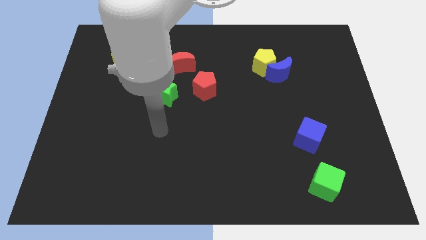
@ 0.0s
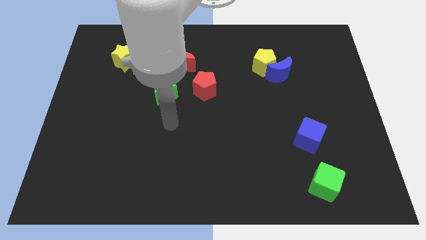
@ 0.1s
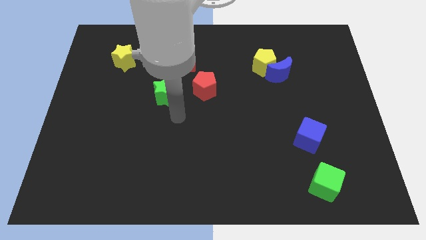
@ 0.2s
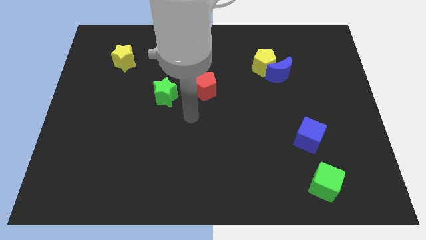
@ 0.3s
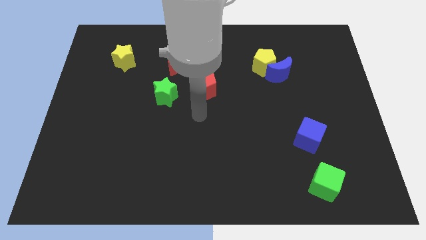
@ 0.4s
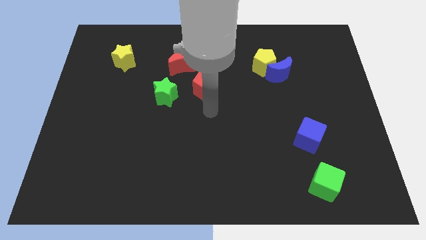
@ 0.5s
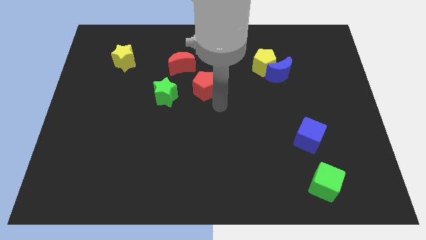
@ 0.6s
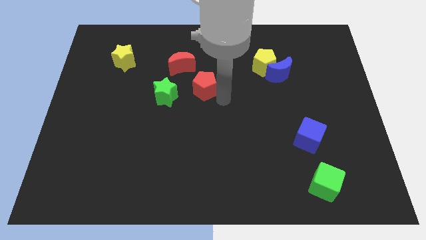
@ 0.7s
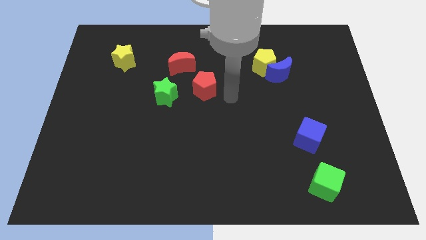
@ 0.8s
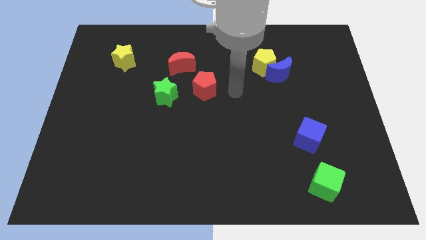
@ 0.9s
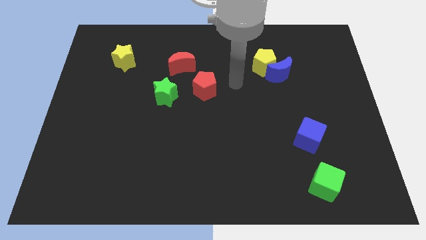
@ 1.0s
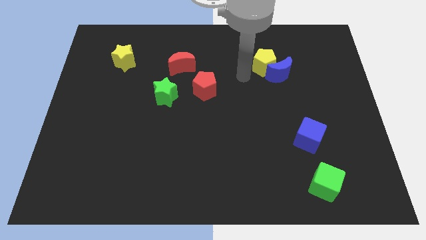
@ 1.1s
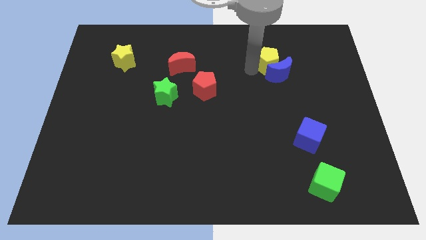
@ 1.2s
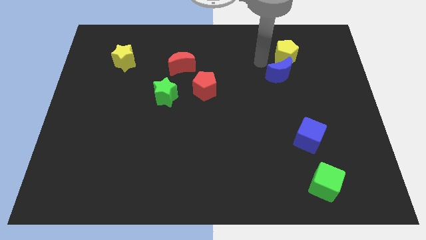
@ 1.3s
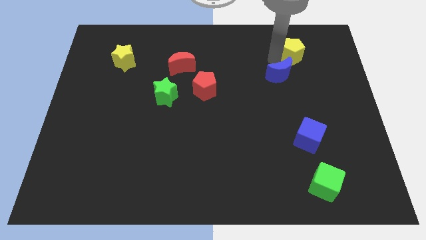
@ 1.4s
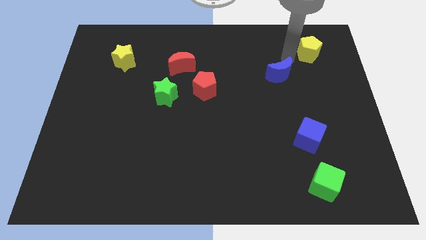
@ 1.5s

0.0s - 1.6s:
pull the blue moon apart from the yellow pentagon

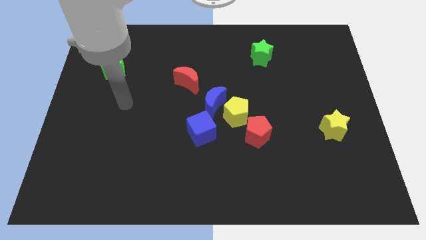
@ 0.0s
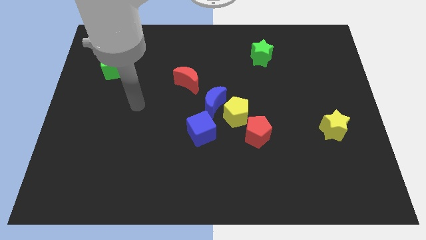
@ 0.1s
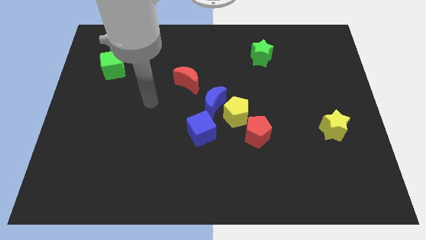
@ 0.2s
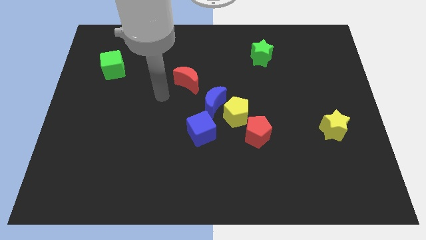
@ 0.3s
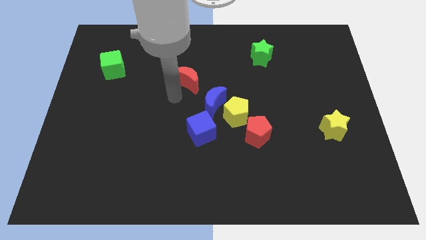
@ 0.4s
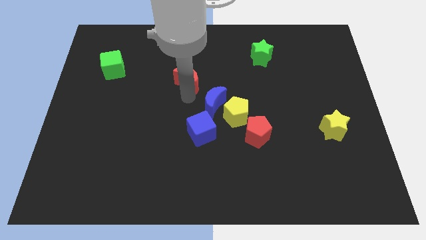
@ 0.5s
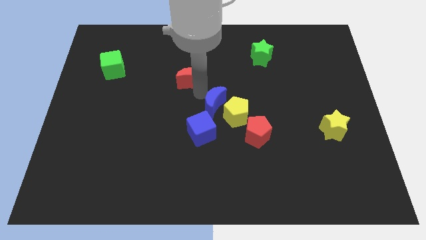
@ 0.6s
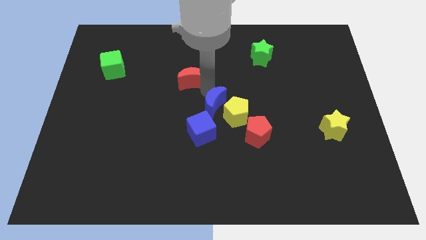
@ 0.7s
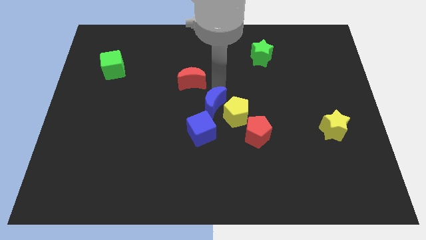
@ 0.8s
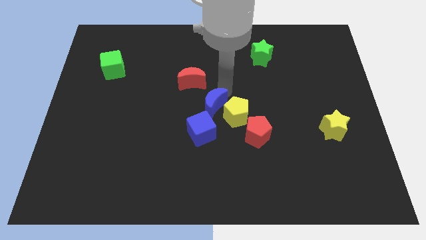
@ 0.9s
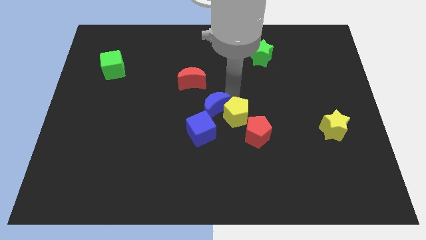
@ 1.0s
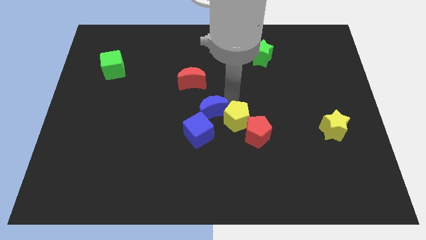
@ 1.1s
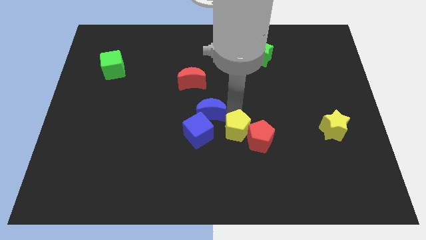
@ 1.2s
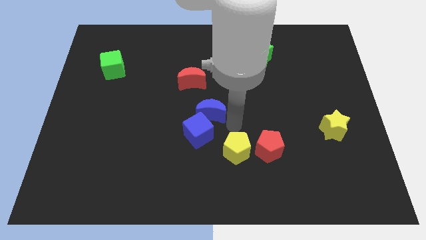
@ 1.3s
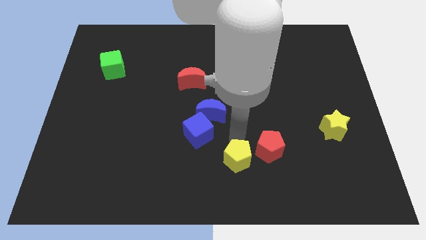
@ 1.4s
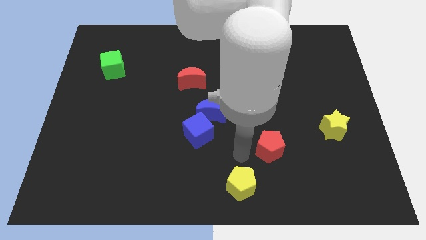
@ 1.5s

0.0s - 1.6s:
move the red pentagon away from the yellow pentagon

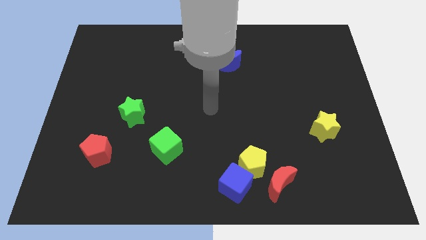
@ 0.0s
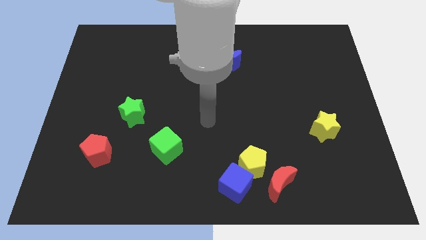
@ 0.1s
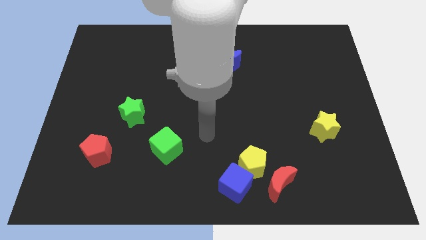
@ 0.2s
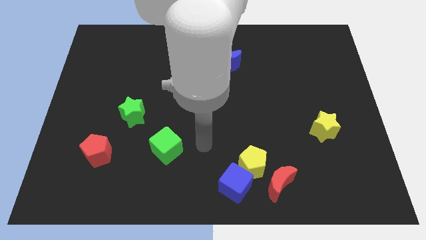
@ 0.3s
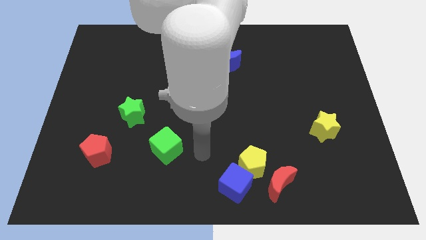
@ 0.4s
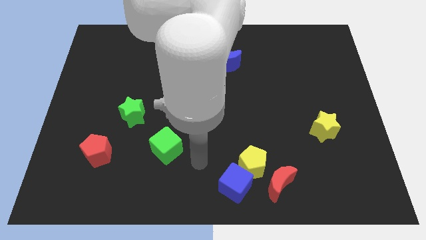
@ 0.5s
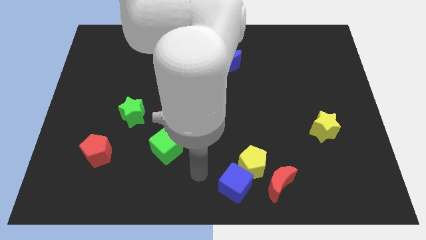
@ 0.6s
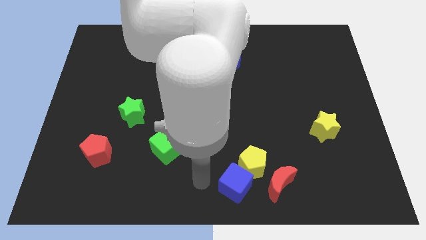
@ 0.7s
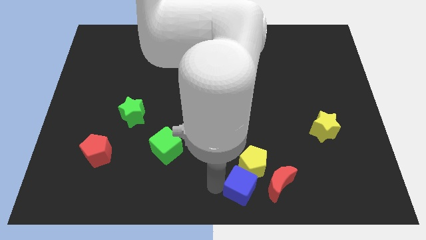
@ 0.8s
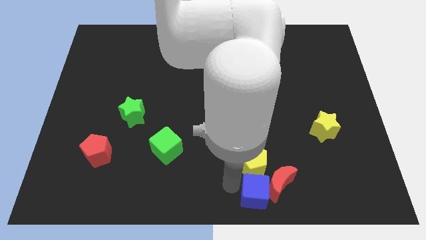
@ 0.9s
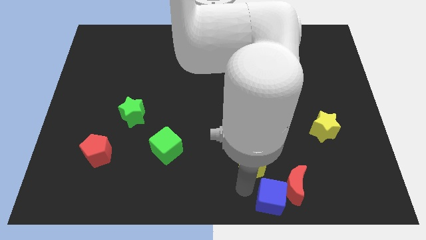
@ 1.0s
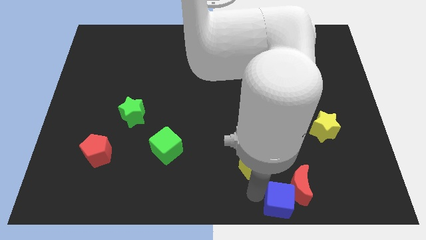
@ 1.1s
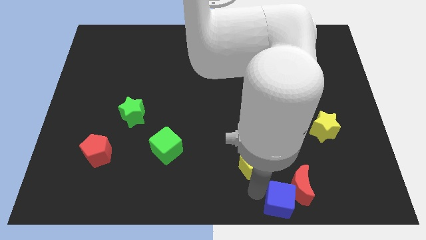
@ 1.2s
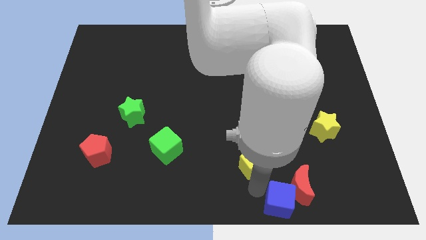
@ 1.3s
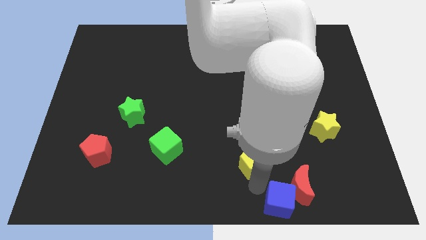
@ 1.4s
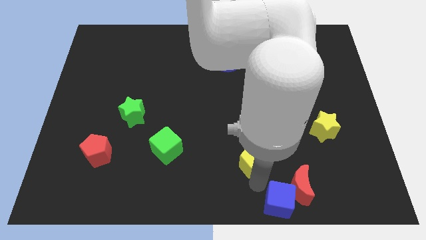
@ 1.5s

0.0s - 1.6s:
pull the yellow pentagon apart from the blue cube and red moon

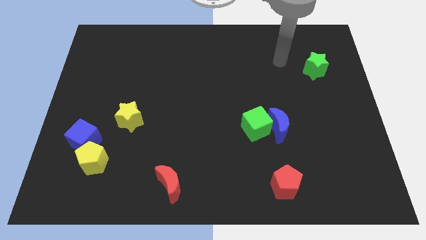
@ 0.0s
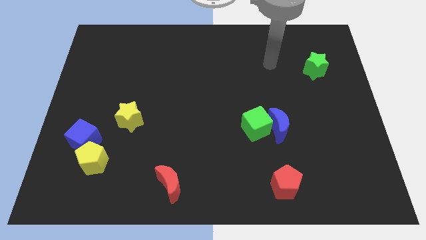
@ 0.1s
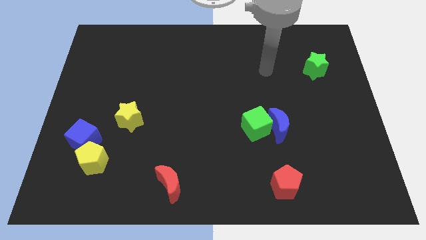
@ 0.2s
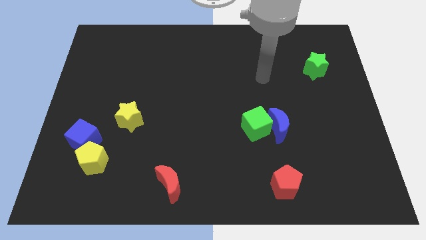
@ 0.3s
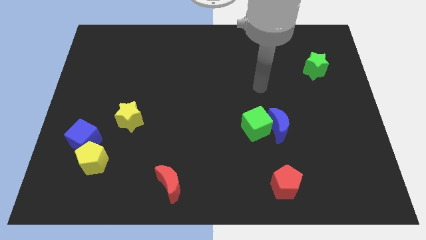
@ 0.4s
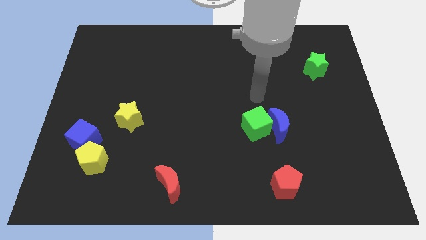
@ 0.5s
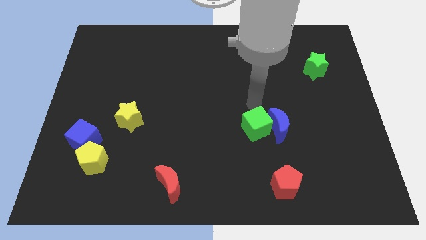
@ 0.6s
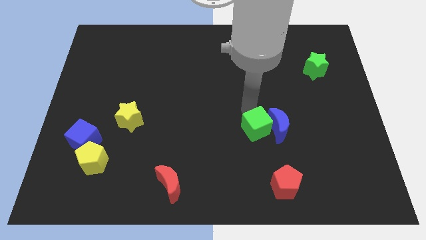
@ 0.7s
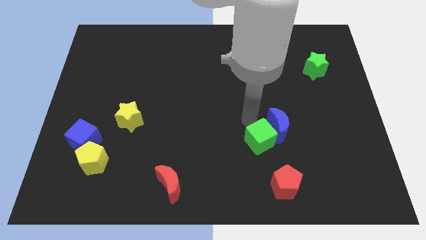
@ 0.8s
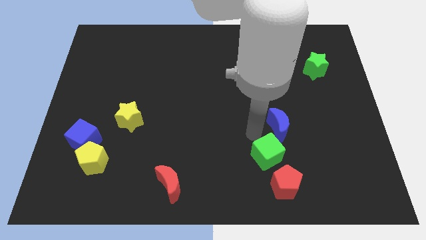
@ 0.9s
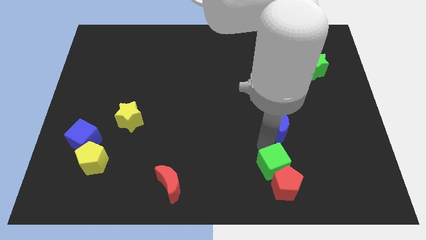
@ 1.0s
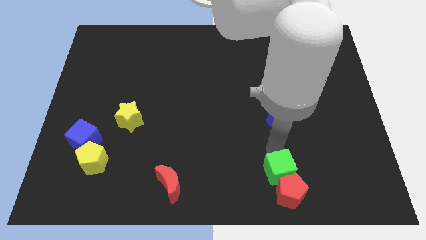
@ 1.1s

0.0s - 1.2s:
move the blue moon away from the green cube

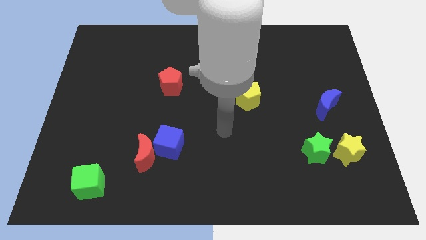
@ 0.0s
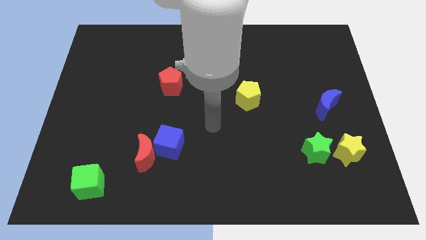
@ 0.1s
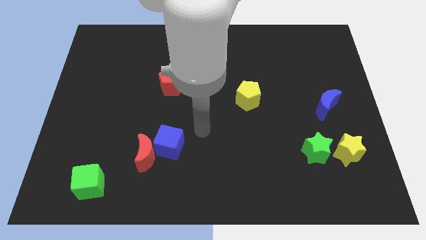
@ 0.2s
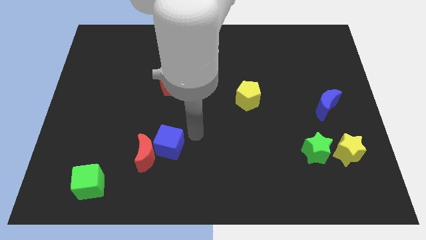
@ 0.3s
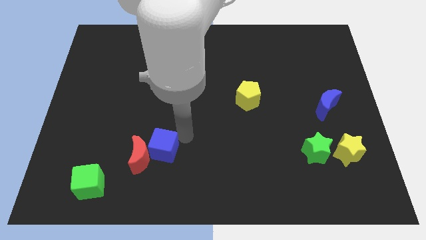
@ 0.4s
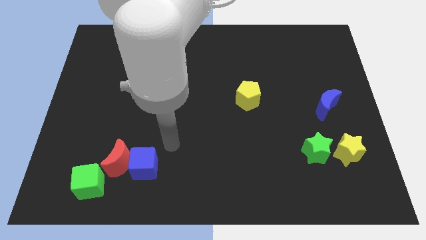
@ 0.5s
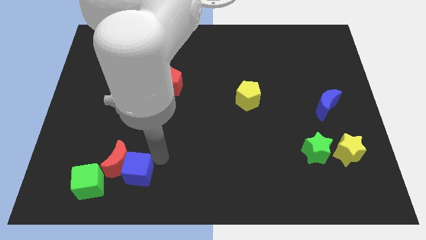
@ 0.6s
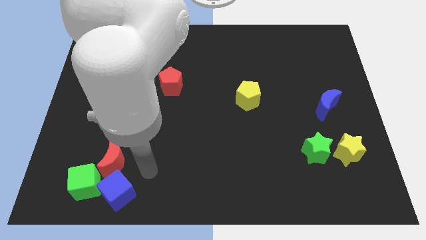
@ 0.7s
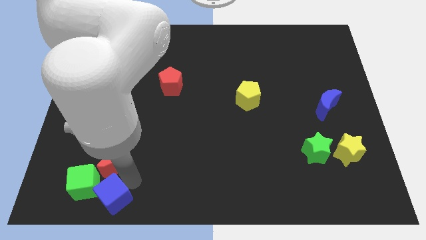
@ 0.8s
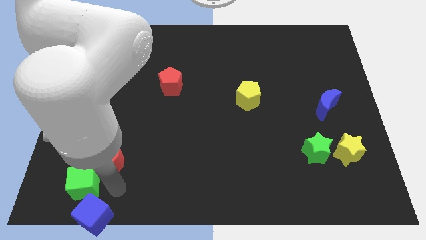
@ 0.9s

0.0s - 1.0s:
move the red moon away from the blue cube

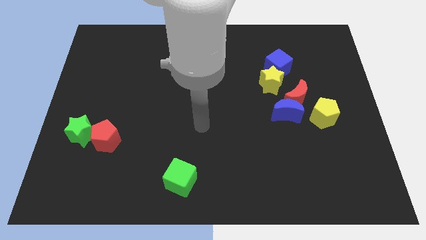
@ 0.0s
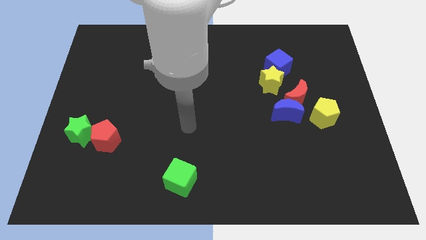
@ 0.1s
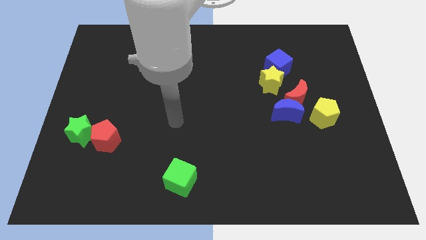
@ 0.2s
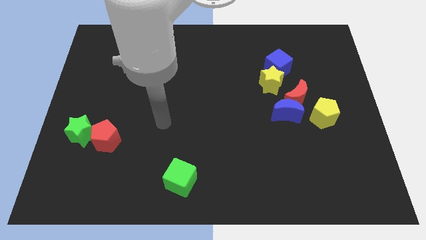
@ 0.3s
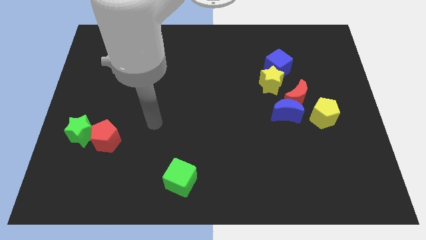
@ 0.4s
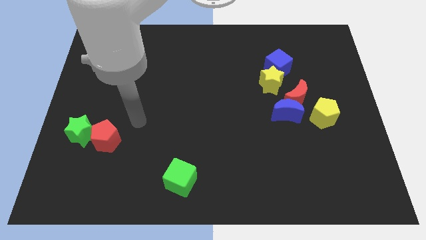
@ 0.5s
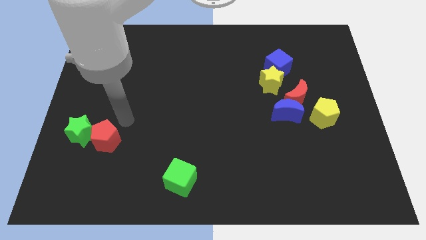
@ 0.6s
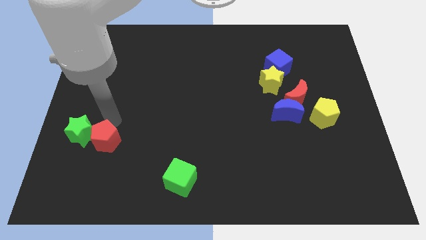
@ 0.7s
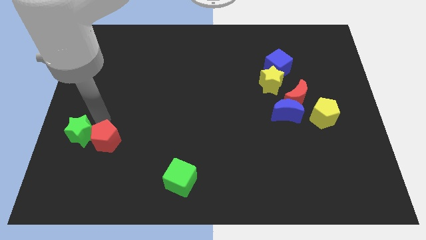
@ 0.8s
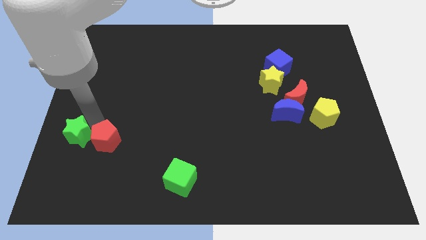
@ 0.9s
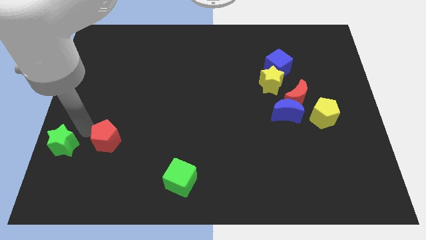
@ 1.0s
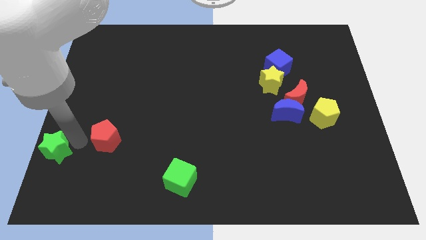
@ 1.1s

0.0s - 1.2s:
move the red pentagon away from the green star

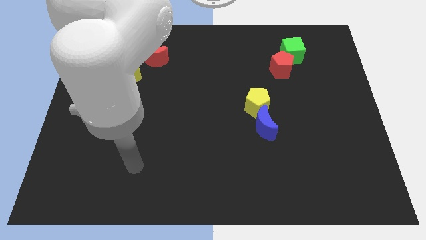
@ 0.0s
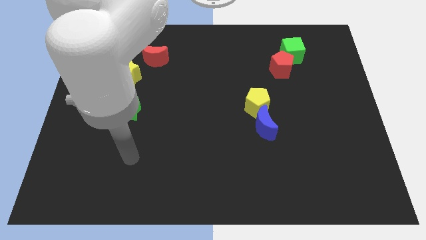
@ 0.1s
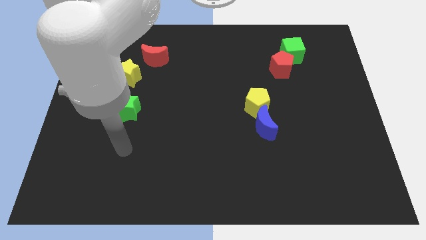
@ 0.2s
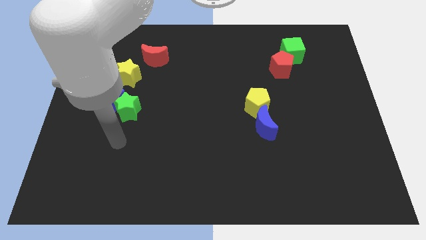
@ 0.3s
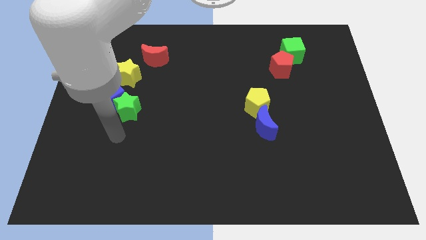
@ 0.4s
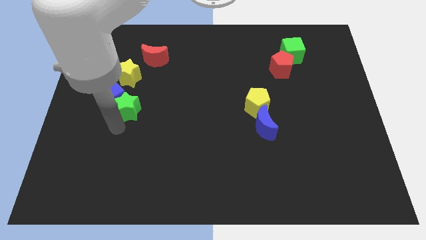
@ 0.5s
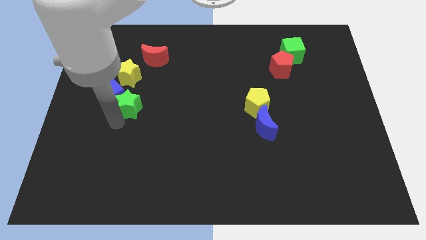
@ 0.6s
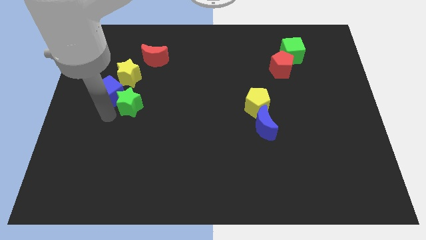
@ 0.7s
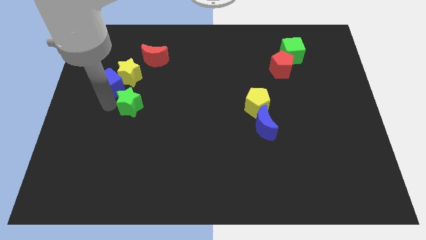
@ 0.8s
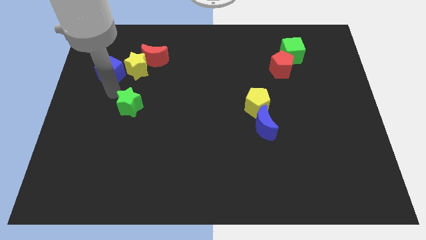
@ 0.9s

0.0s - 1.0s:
separate the green star from the blue cube
